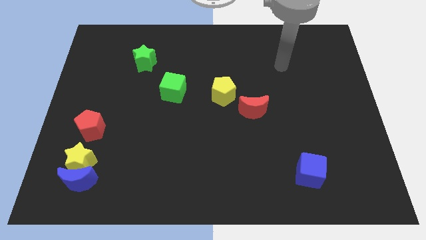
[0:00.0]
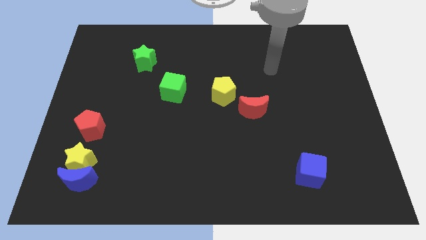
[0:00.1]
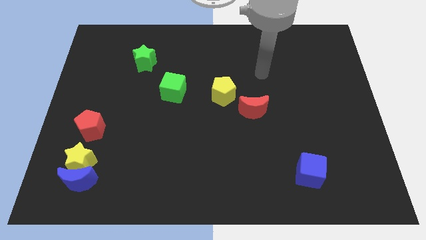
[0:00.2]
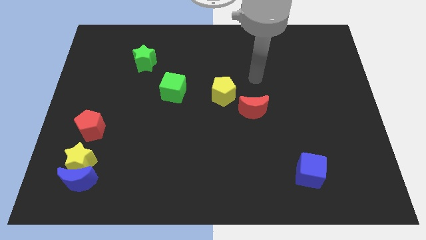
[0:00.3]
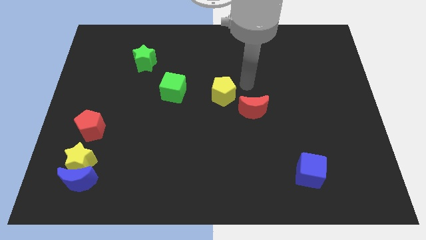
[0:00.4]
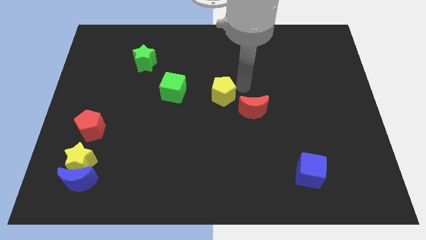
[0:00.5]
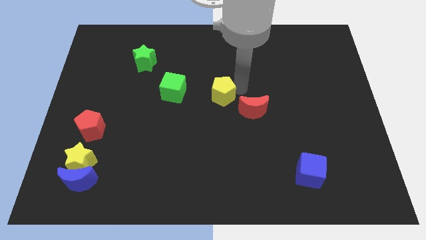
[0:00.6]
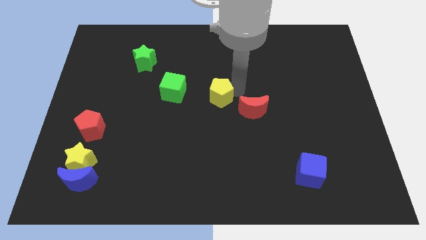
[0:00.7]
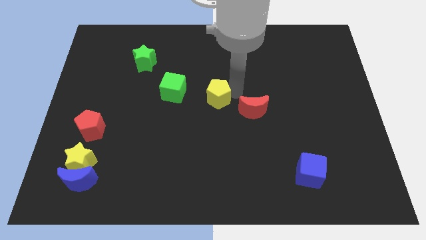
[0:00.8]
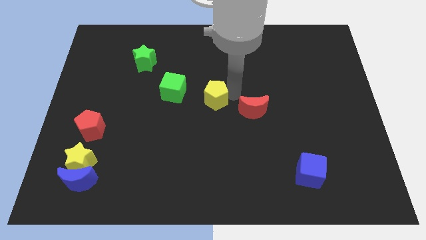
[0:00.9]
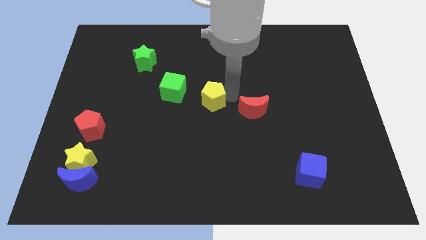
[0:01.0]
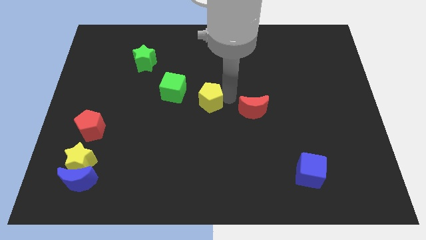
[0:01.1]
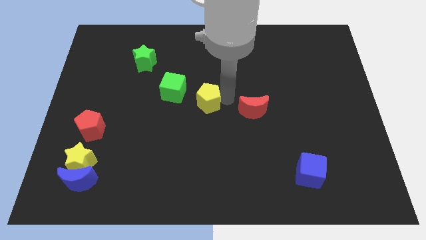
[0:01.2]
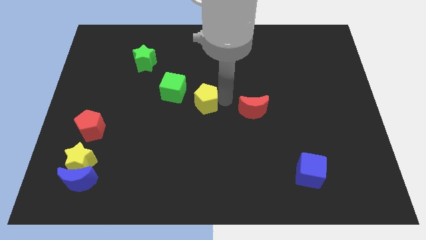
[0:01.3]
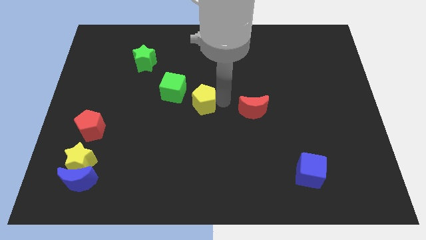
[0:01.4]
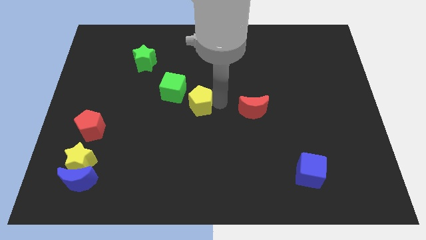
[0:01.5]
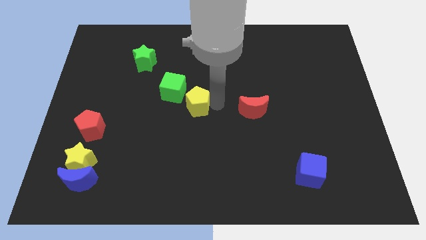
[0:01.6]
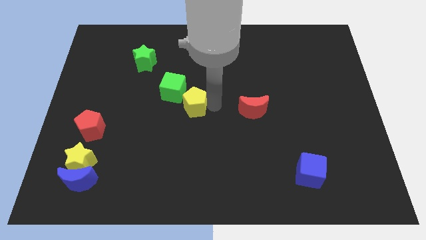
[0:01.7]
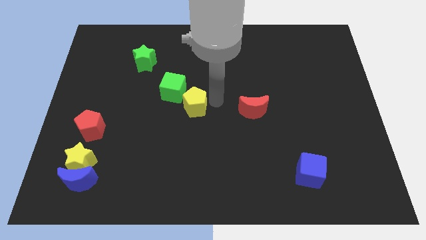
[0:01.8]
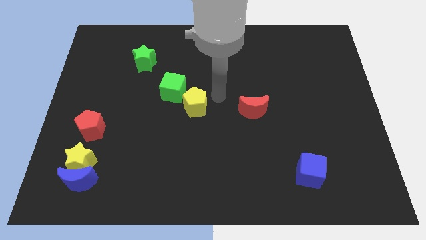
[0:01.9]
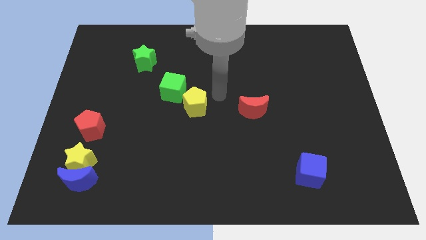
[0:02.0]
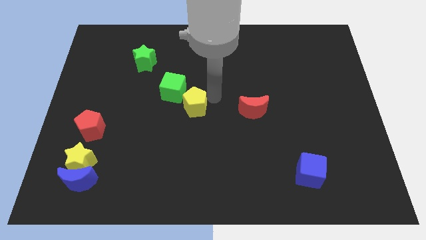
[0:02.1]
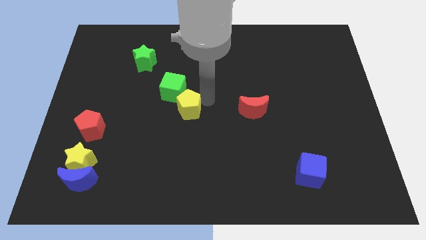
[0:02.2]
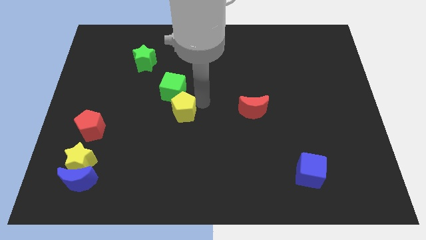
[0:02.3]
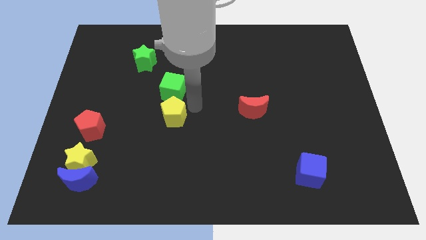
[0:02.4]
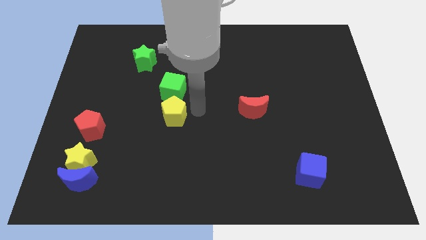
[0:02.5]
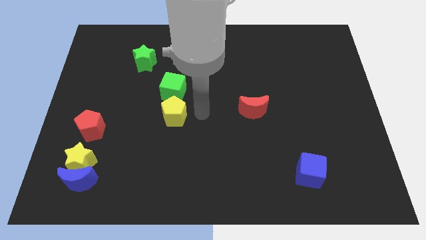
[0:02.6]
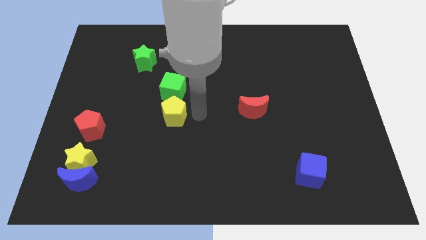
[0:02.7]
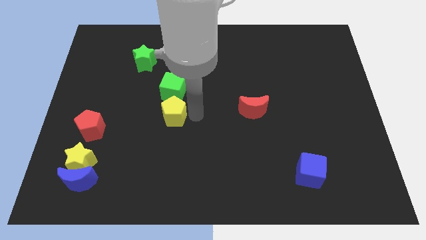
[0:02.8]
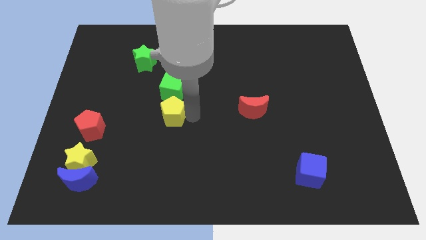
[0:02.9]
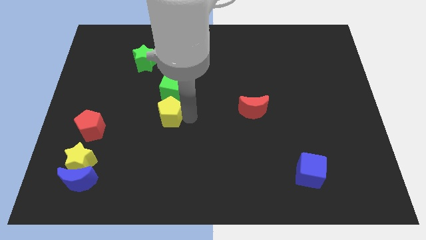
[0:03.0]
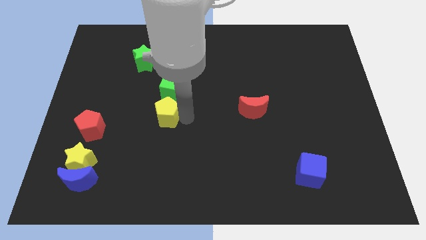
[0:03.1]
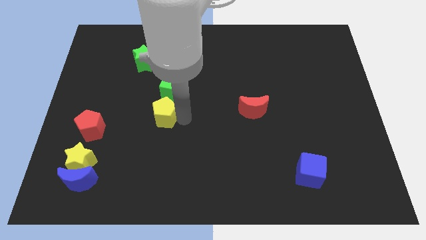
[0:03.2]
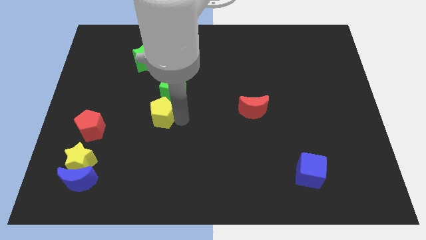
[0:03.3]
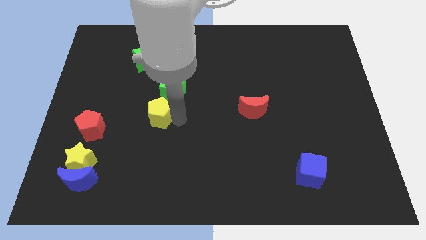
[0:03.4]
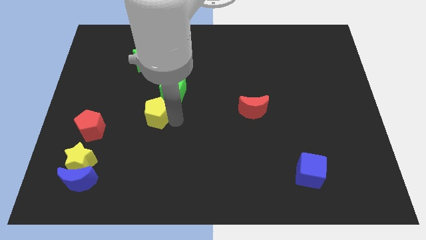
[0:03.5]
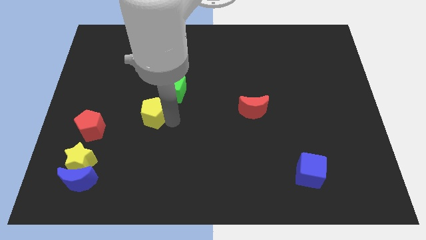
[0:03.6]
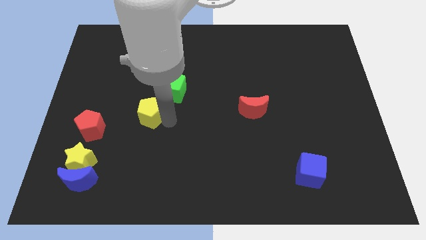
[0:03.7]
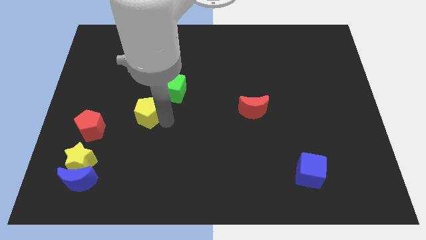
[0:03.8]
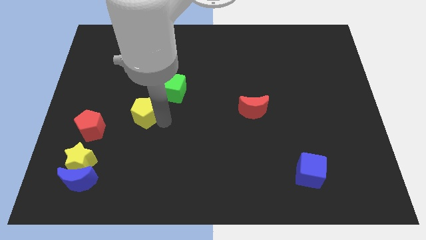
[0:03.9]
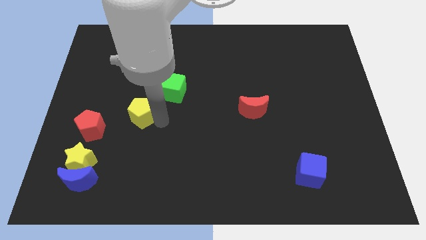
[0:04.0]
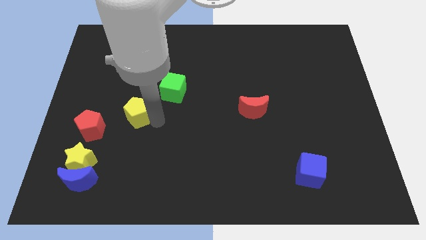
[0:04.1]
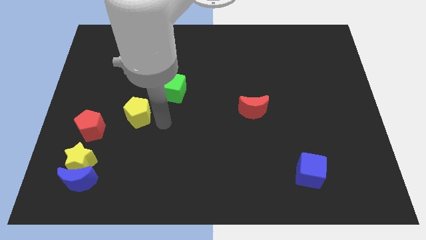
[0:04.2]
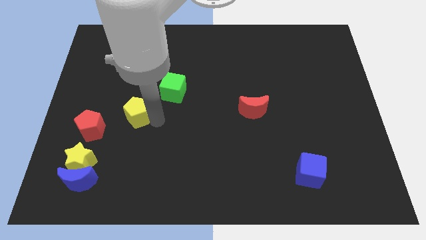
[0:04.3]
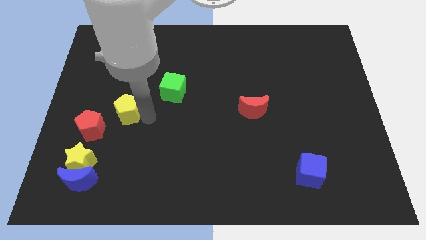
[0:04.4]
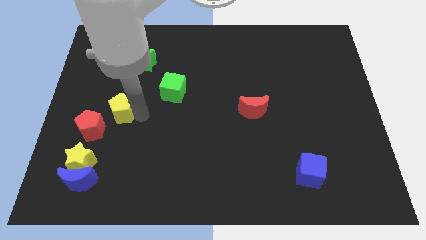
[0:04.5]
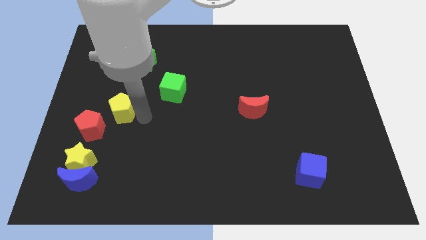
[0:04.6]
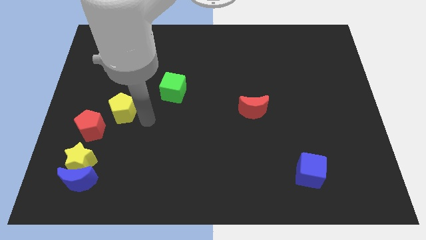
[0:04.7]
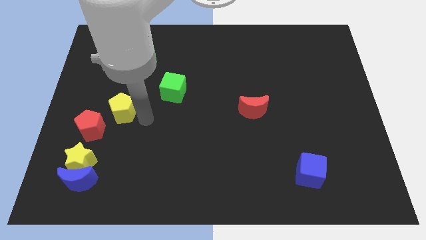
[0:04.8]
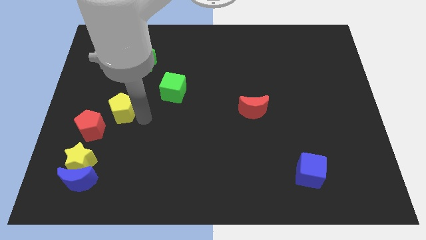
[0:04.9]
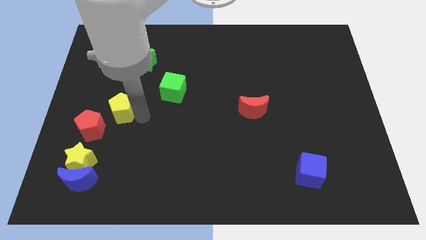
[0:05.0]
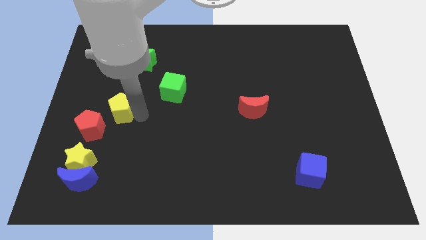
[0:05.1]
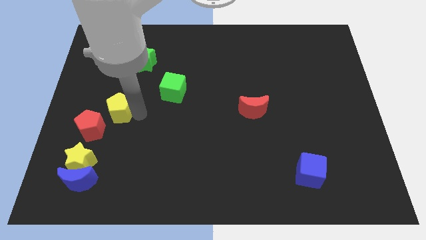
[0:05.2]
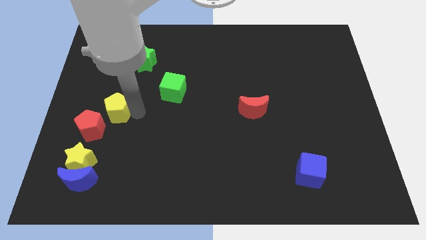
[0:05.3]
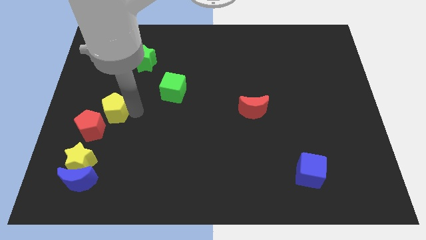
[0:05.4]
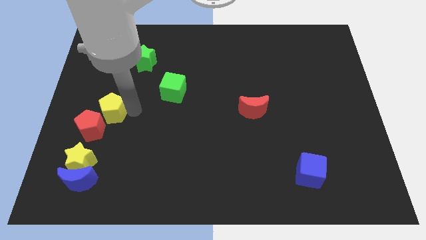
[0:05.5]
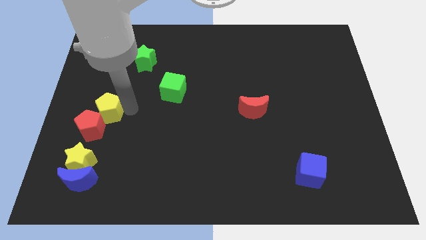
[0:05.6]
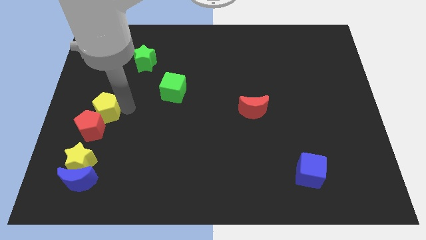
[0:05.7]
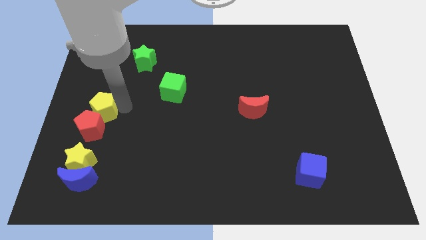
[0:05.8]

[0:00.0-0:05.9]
push the yellow pentagon to the center left

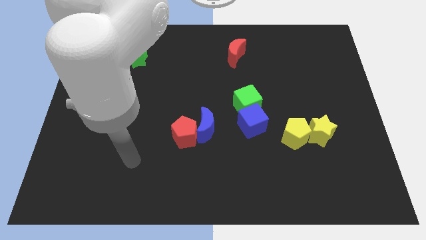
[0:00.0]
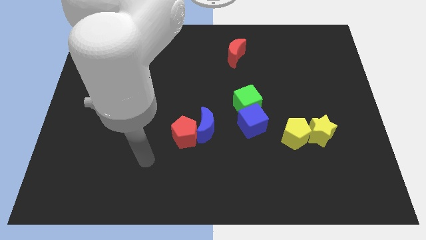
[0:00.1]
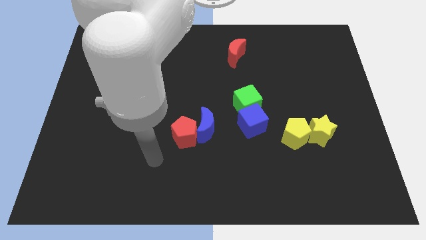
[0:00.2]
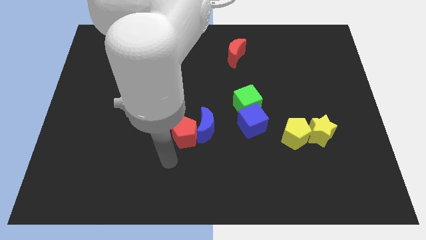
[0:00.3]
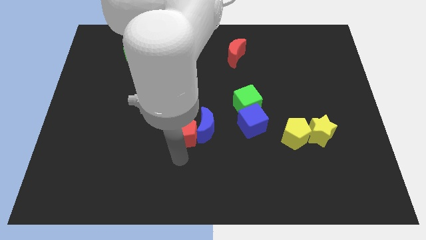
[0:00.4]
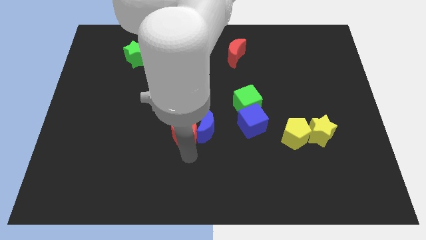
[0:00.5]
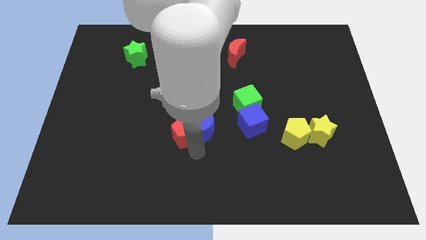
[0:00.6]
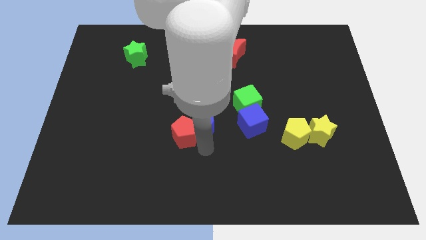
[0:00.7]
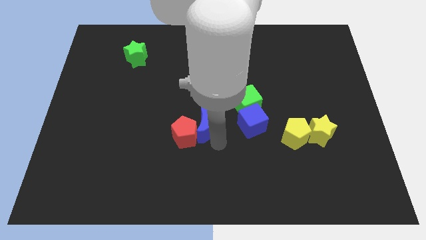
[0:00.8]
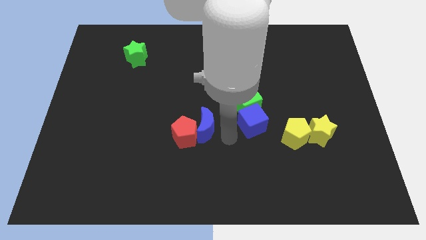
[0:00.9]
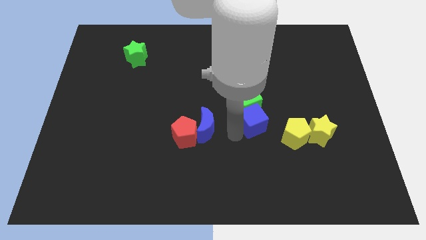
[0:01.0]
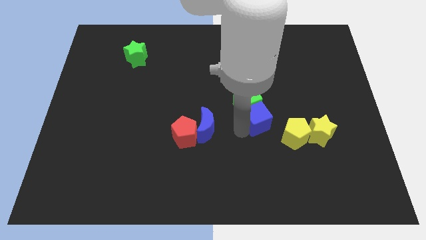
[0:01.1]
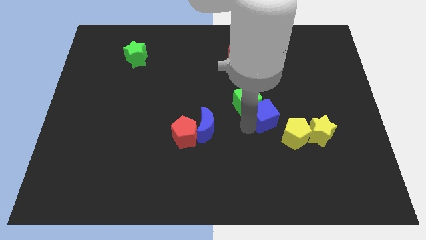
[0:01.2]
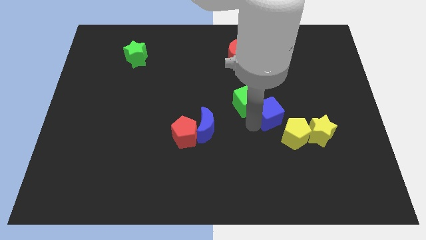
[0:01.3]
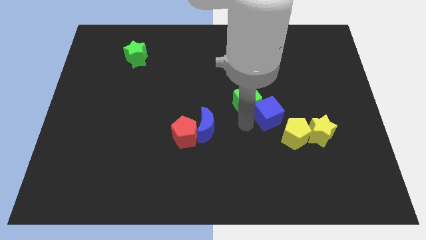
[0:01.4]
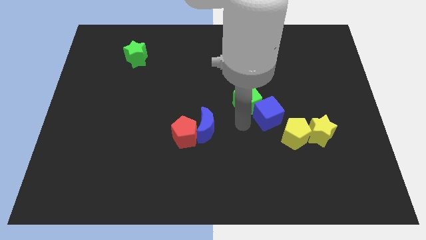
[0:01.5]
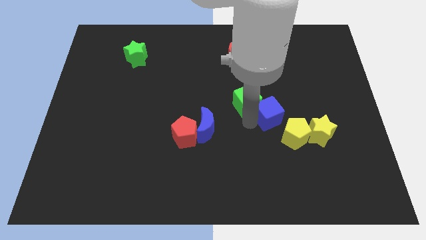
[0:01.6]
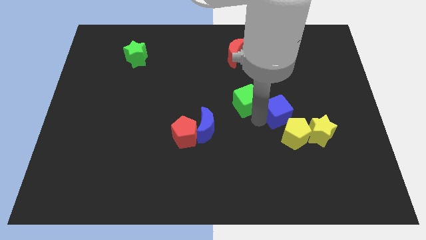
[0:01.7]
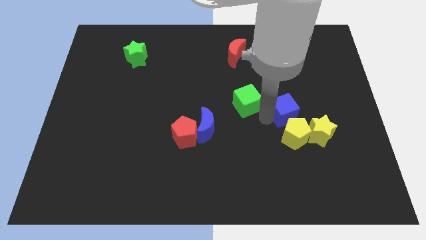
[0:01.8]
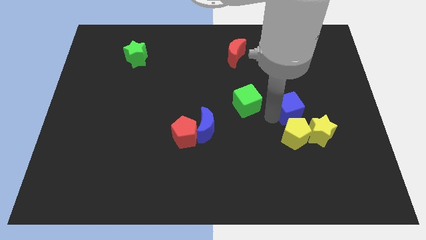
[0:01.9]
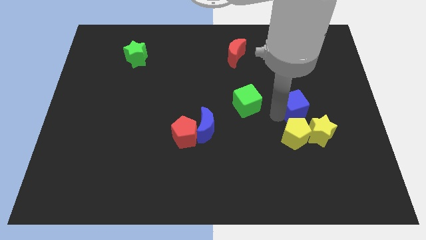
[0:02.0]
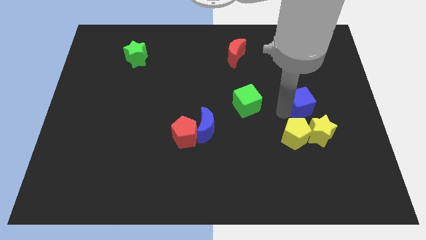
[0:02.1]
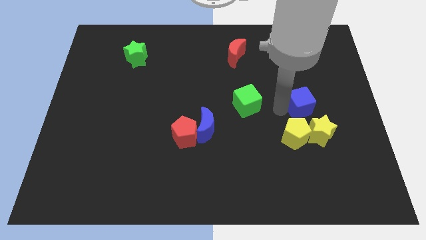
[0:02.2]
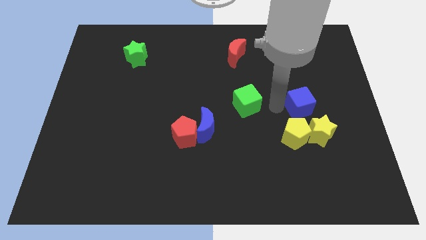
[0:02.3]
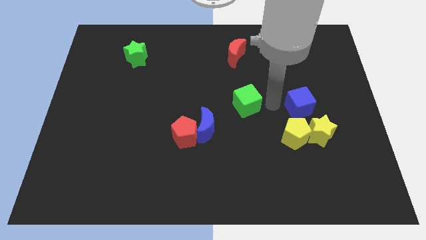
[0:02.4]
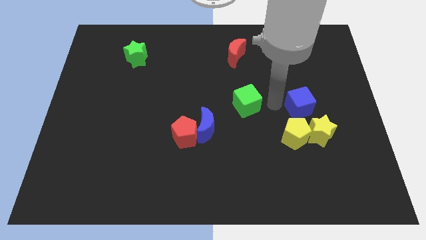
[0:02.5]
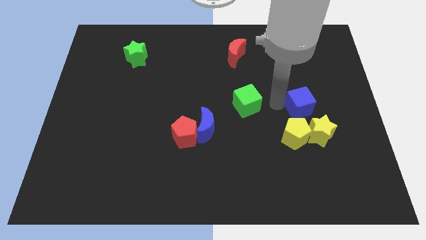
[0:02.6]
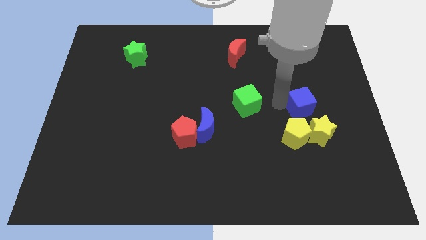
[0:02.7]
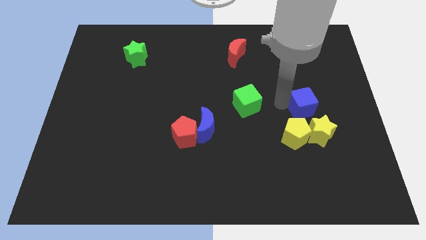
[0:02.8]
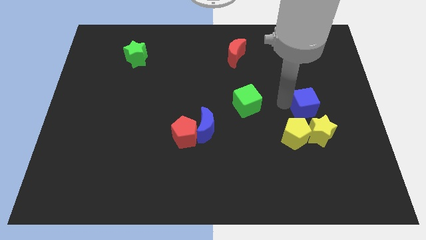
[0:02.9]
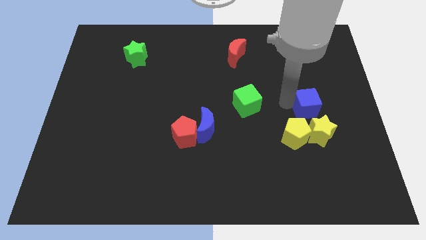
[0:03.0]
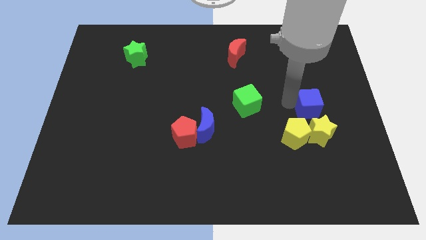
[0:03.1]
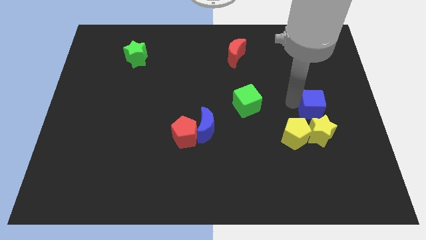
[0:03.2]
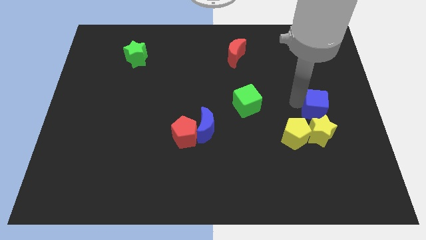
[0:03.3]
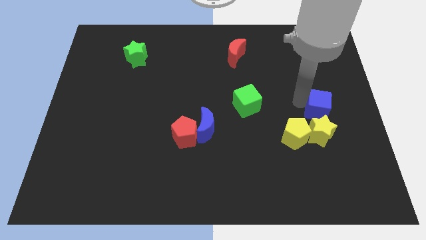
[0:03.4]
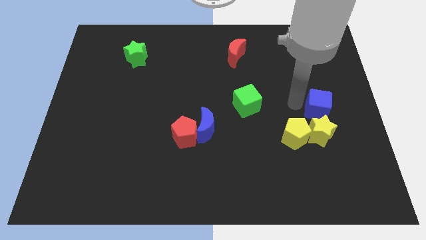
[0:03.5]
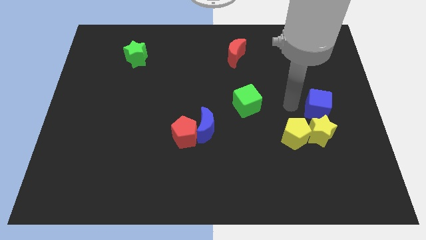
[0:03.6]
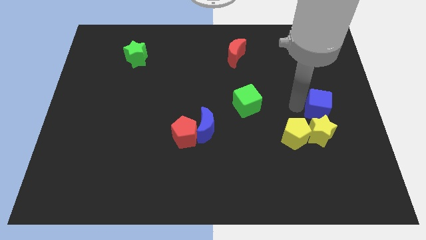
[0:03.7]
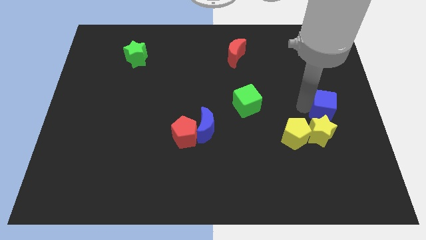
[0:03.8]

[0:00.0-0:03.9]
put the blue cube to the center right
